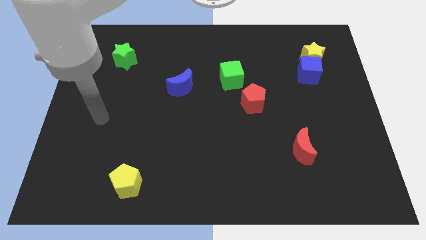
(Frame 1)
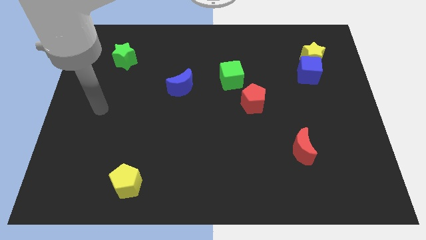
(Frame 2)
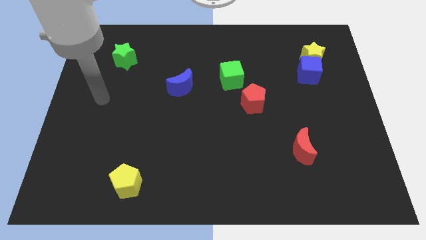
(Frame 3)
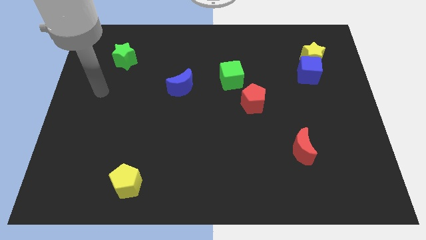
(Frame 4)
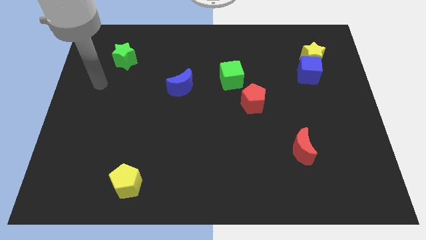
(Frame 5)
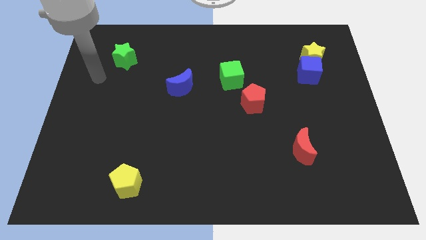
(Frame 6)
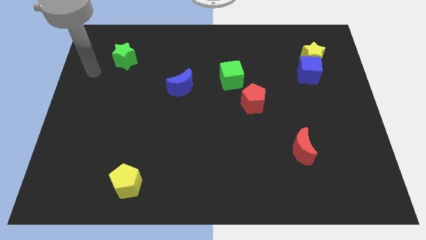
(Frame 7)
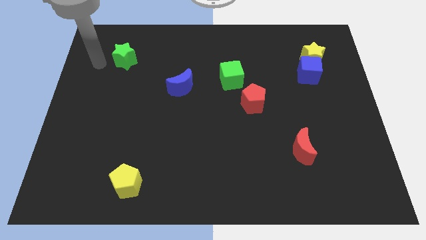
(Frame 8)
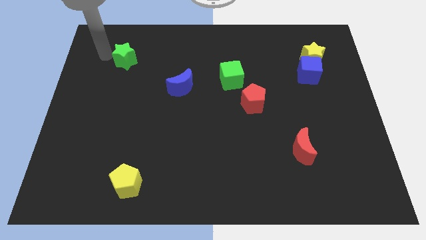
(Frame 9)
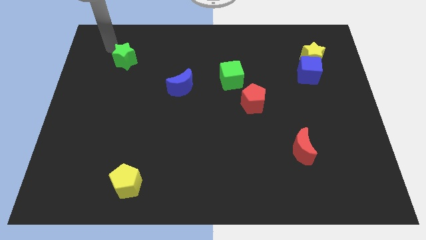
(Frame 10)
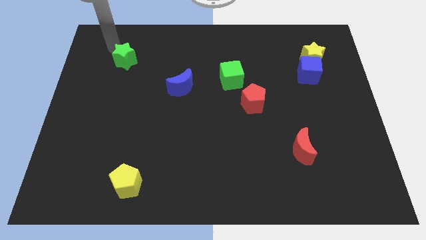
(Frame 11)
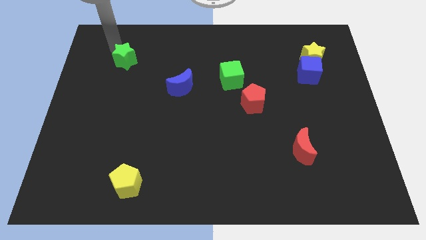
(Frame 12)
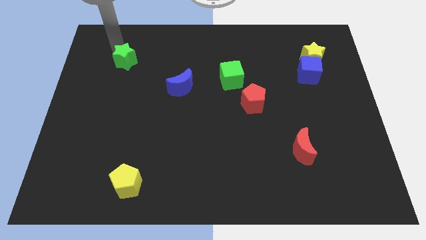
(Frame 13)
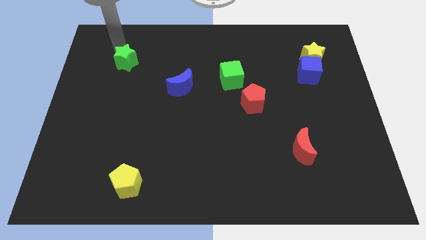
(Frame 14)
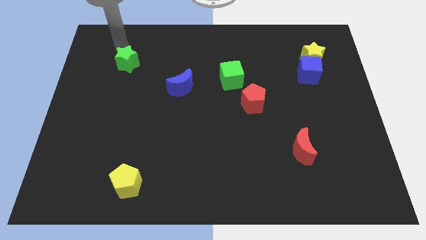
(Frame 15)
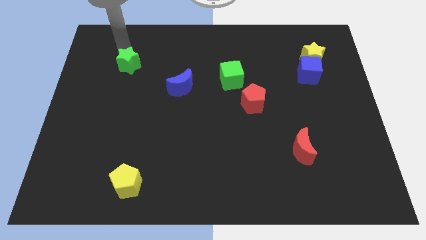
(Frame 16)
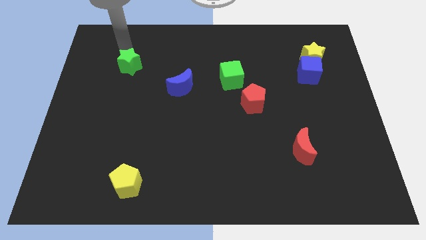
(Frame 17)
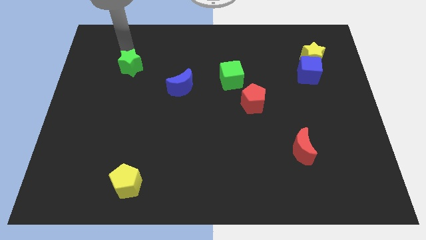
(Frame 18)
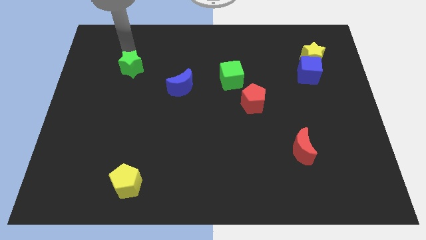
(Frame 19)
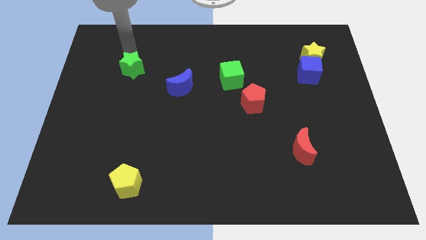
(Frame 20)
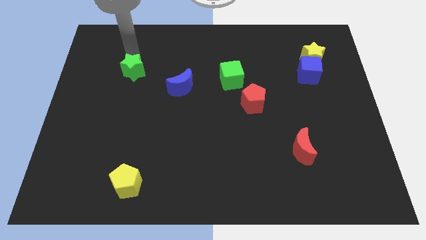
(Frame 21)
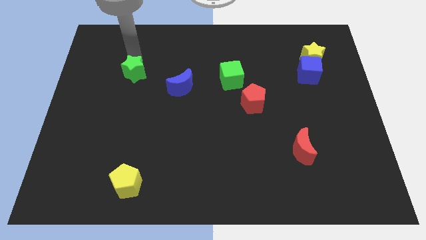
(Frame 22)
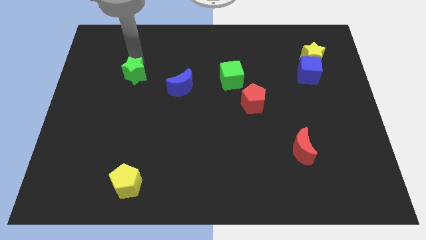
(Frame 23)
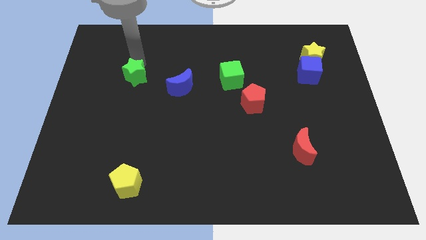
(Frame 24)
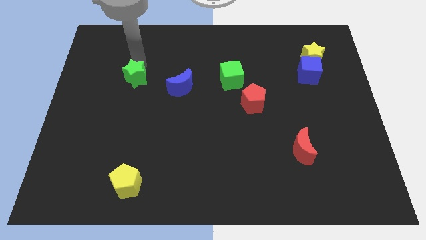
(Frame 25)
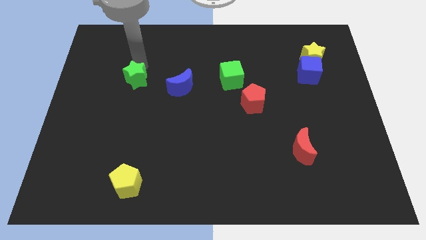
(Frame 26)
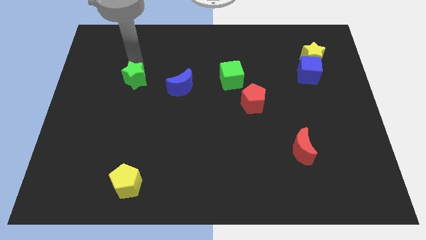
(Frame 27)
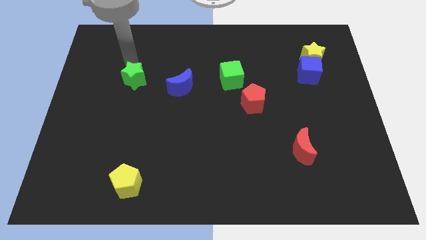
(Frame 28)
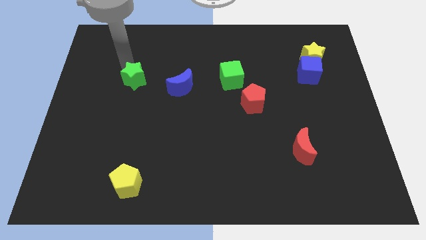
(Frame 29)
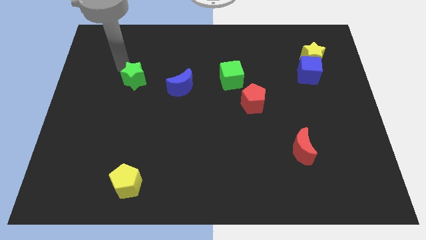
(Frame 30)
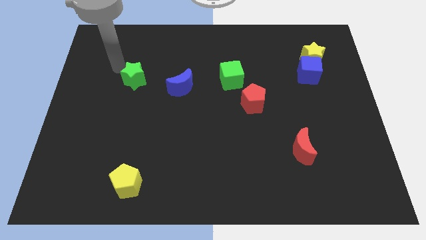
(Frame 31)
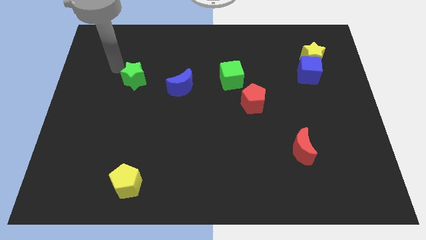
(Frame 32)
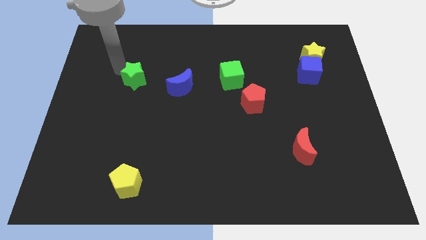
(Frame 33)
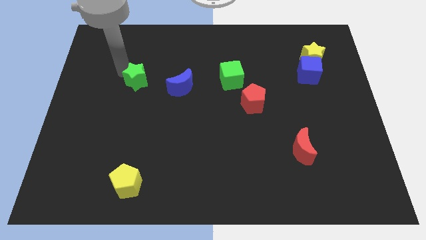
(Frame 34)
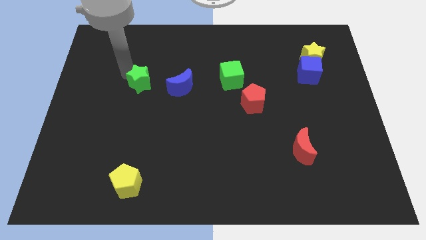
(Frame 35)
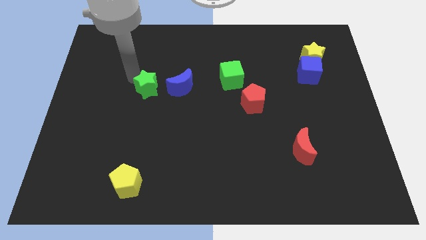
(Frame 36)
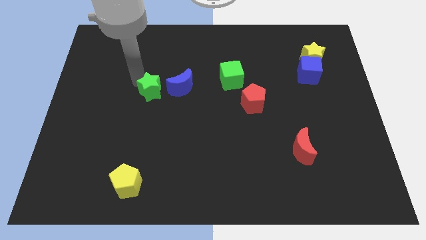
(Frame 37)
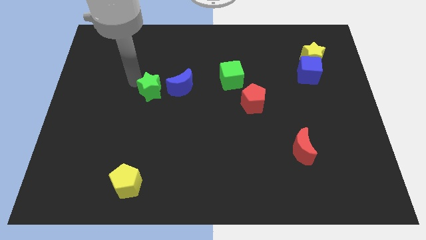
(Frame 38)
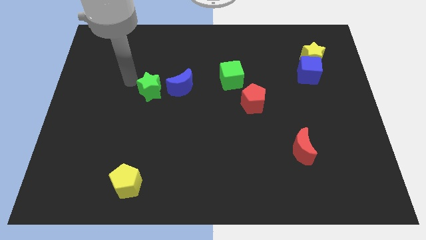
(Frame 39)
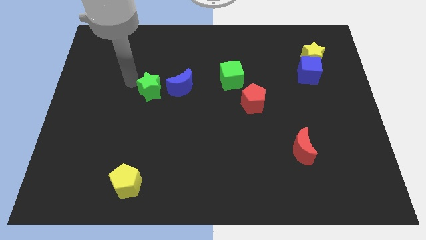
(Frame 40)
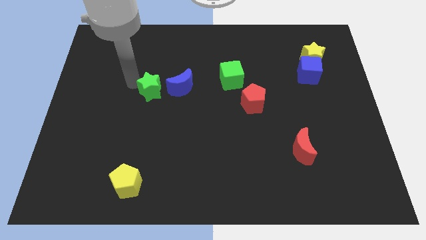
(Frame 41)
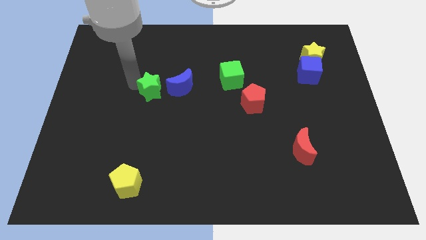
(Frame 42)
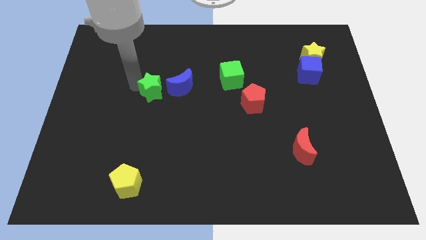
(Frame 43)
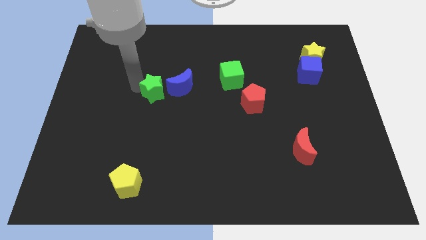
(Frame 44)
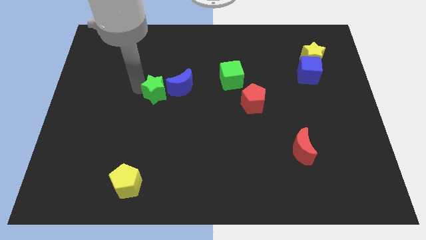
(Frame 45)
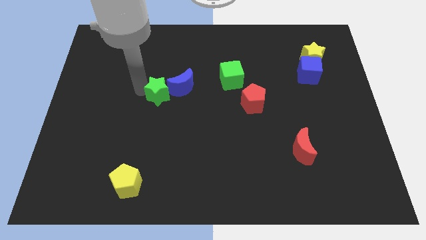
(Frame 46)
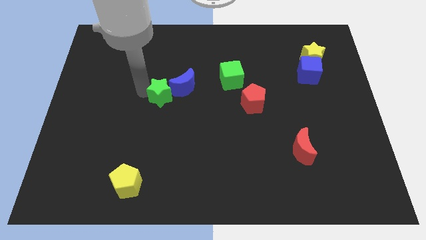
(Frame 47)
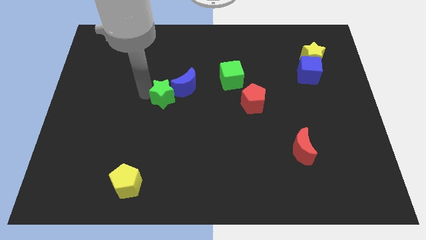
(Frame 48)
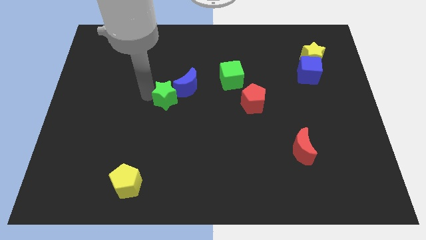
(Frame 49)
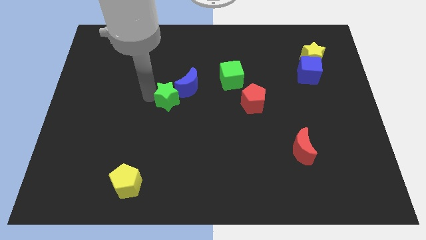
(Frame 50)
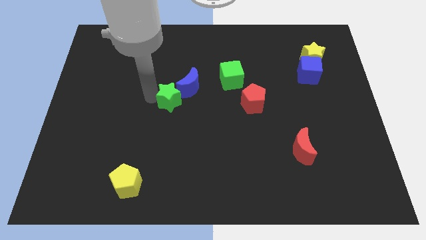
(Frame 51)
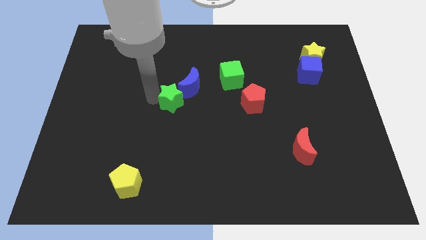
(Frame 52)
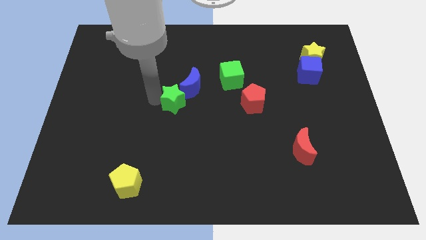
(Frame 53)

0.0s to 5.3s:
slide the green star downwards and to the right diagonally

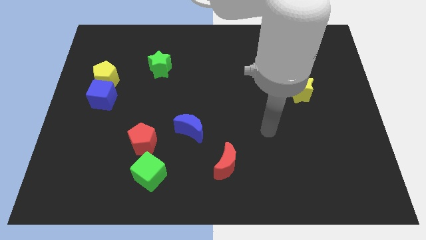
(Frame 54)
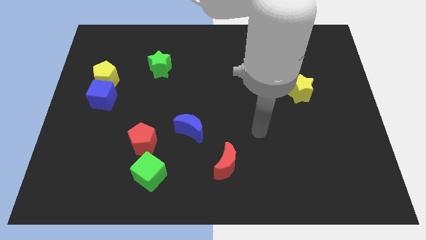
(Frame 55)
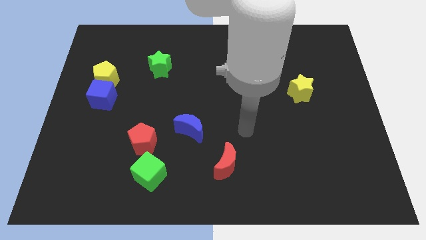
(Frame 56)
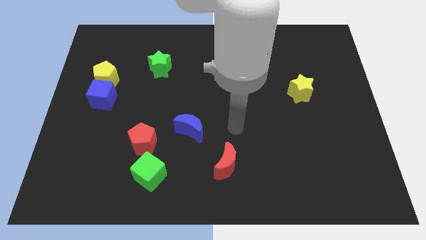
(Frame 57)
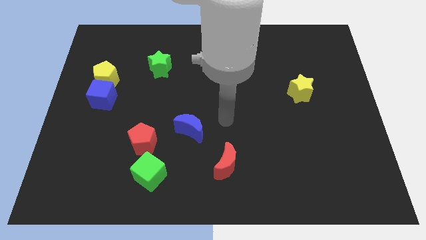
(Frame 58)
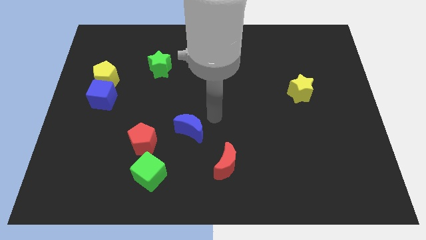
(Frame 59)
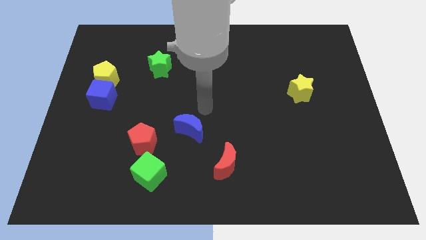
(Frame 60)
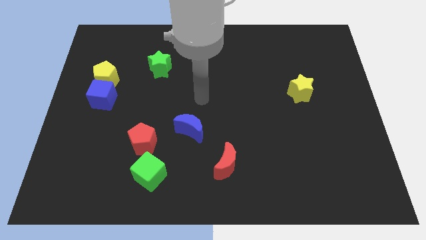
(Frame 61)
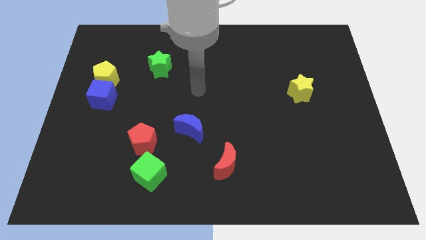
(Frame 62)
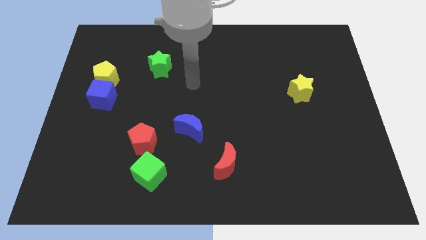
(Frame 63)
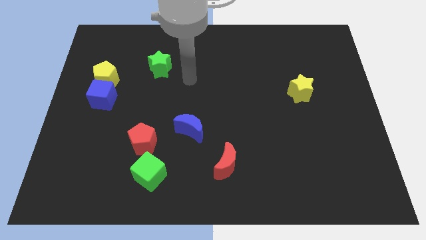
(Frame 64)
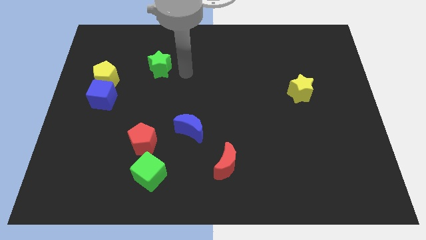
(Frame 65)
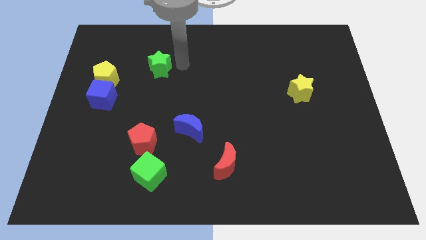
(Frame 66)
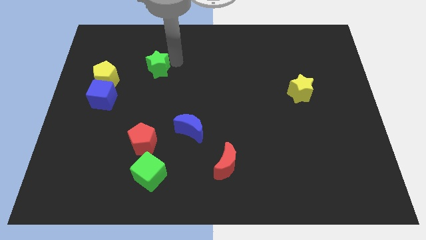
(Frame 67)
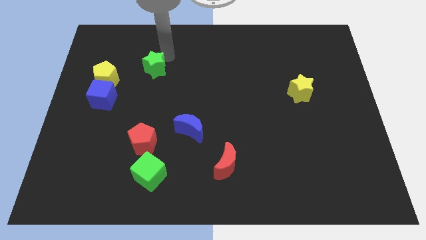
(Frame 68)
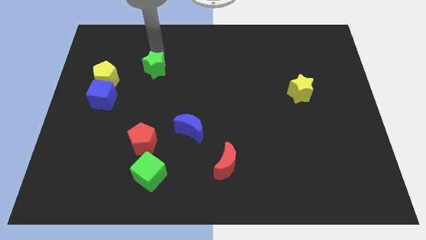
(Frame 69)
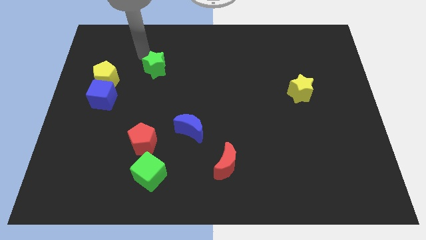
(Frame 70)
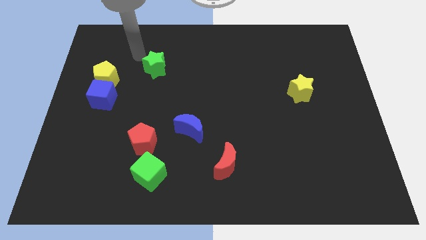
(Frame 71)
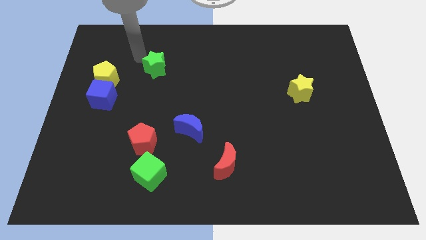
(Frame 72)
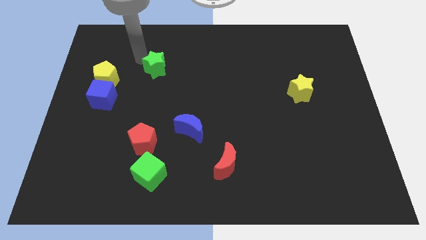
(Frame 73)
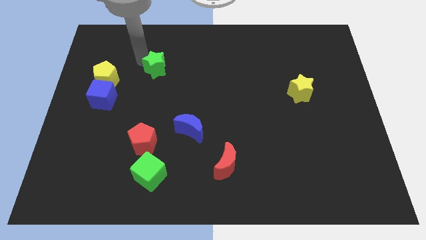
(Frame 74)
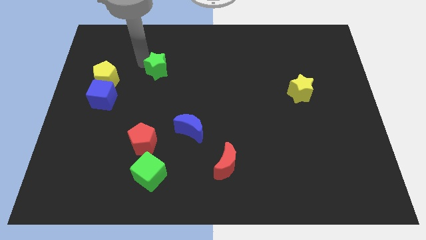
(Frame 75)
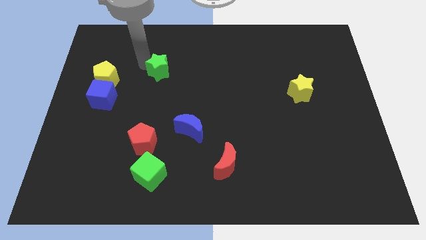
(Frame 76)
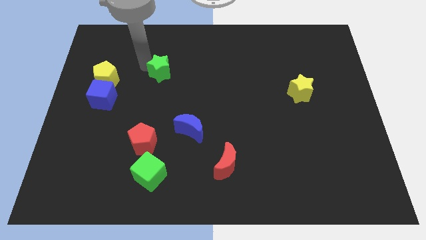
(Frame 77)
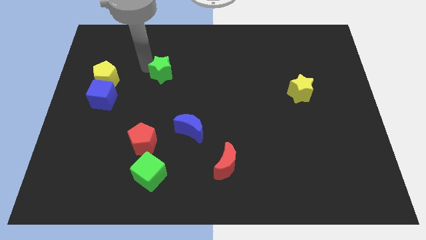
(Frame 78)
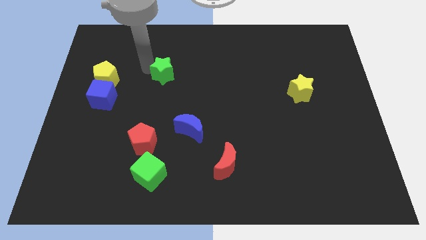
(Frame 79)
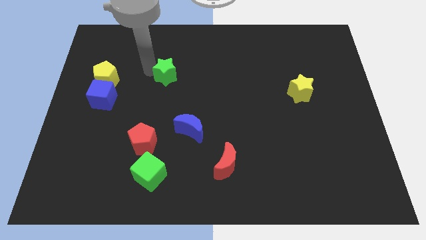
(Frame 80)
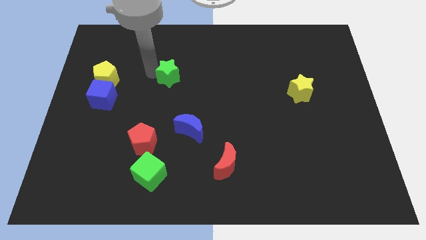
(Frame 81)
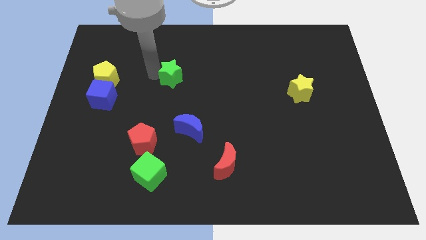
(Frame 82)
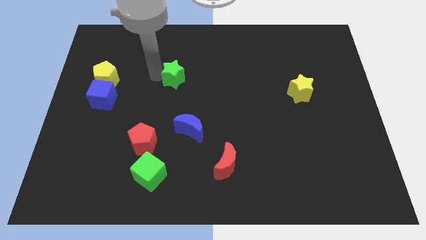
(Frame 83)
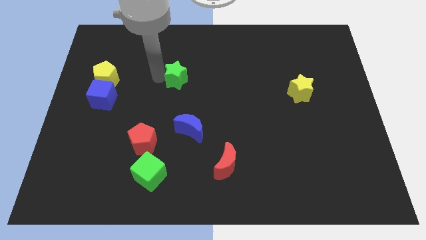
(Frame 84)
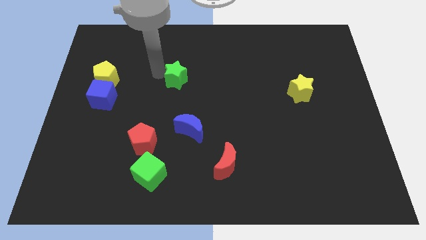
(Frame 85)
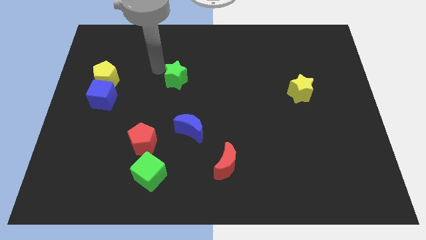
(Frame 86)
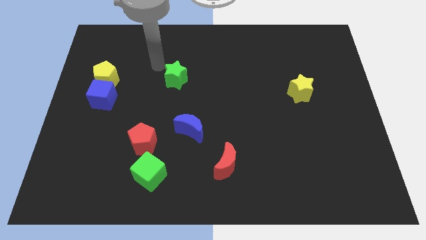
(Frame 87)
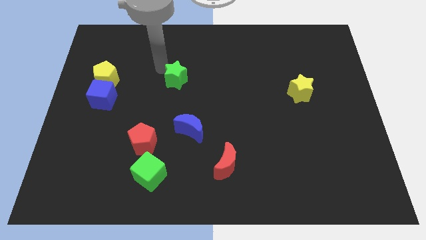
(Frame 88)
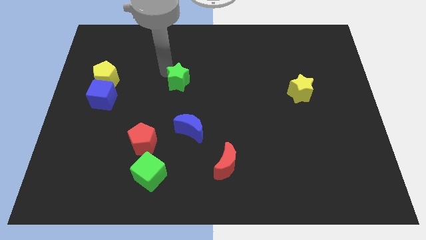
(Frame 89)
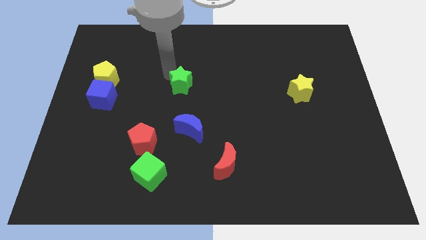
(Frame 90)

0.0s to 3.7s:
slightly move the green star down and then to the right
